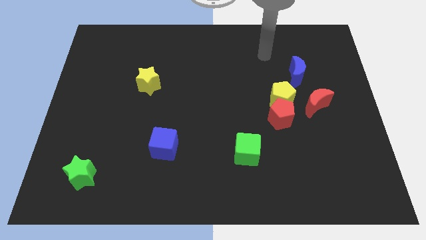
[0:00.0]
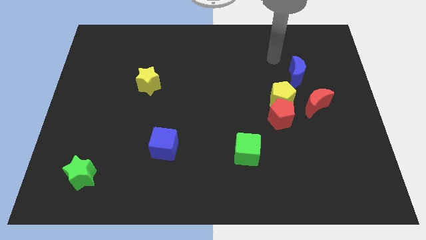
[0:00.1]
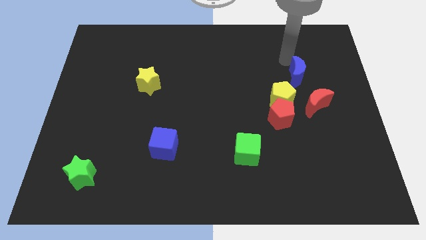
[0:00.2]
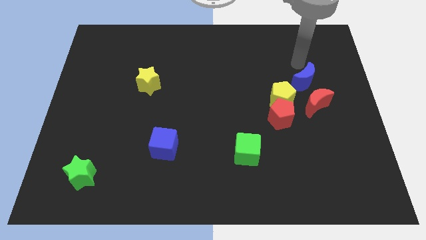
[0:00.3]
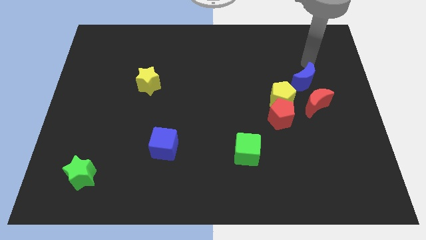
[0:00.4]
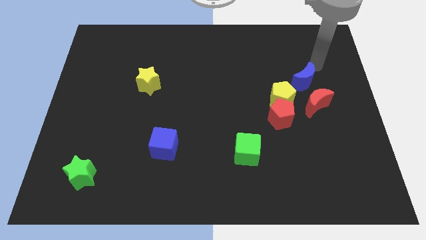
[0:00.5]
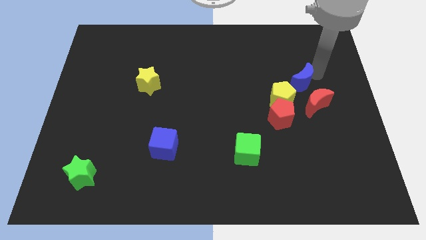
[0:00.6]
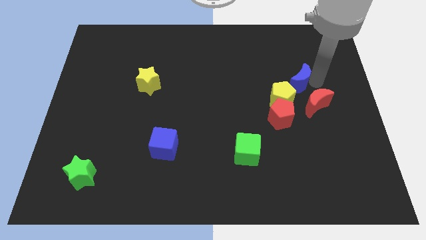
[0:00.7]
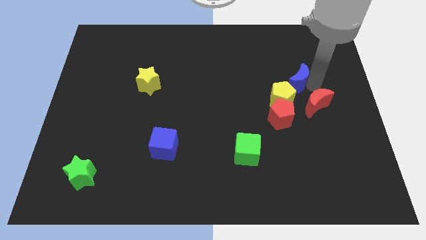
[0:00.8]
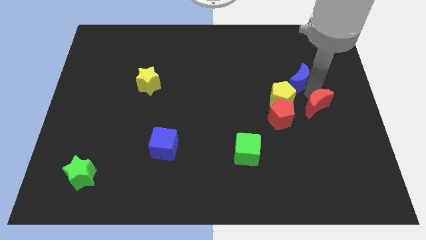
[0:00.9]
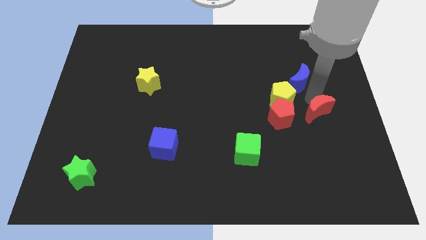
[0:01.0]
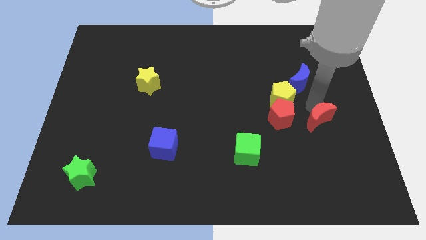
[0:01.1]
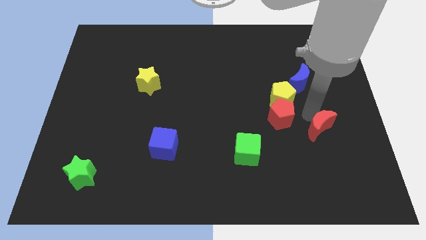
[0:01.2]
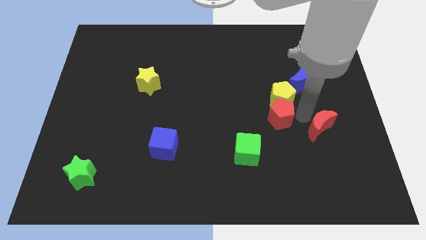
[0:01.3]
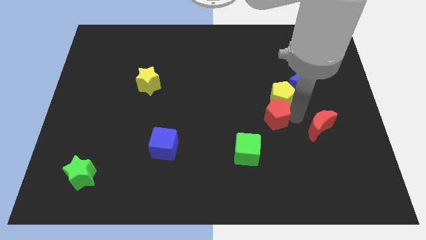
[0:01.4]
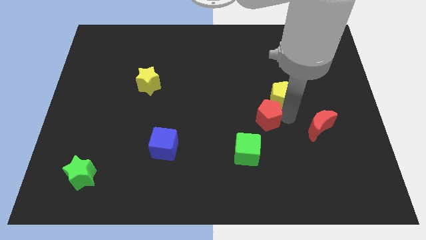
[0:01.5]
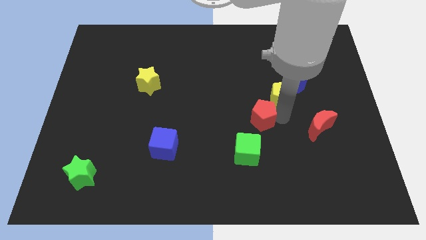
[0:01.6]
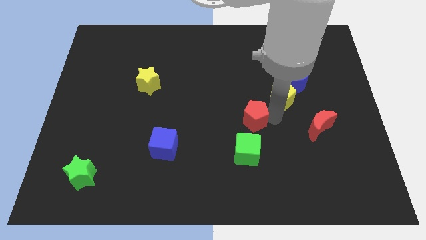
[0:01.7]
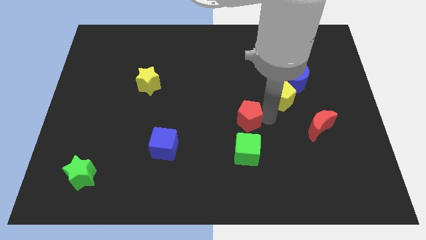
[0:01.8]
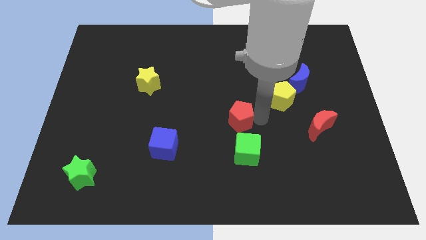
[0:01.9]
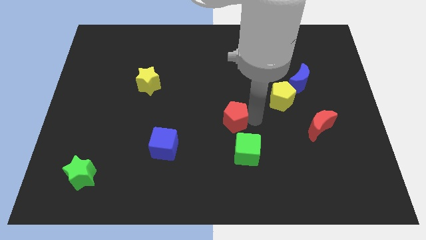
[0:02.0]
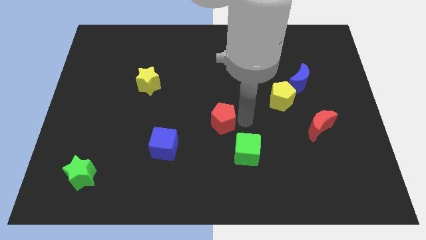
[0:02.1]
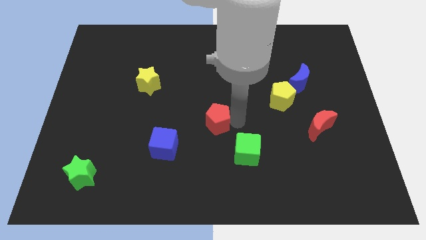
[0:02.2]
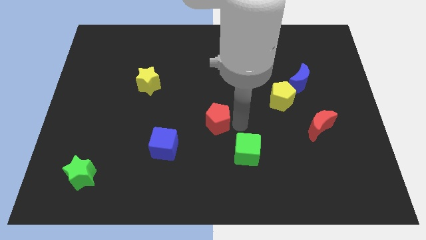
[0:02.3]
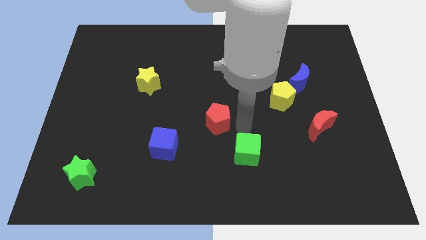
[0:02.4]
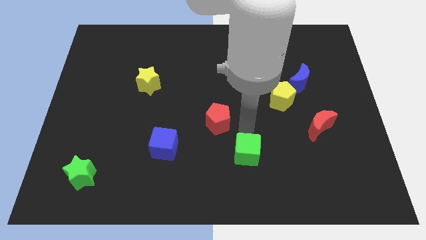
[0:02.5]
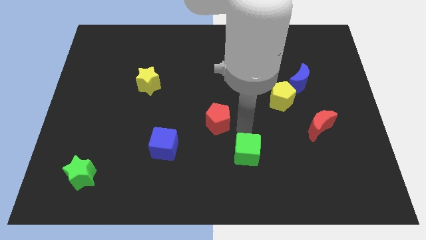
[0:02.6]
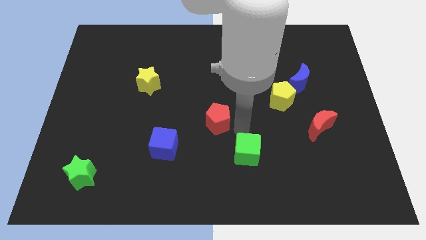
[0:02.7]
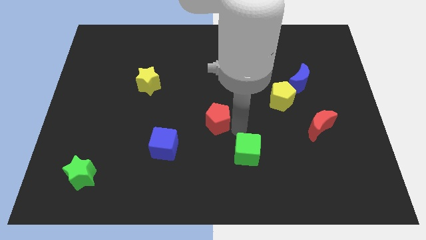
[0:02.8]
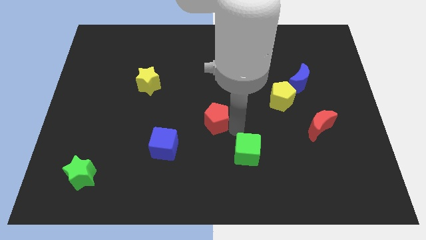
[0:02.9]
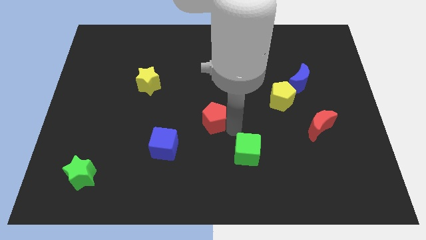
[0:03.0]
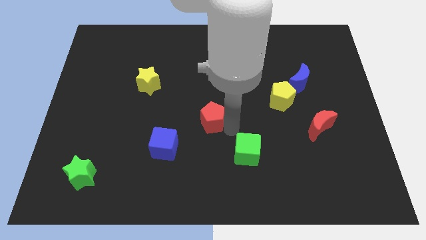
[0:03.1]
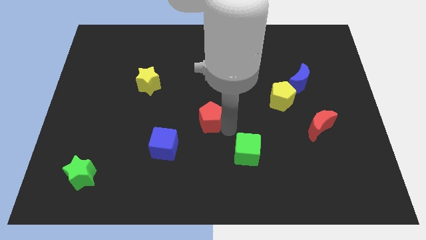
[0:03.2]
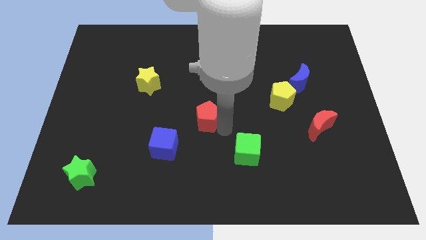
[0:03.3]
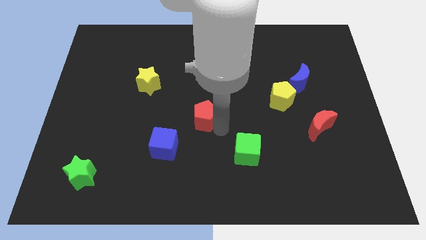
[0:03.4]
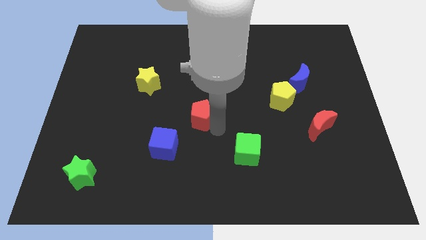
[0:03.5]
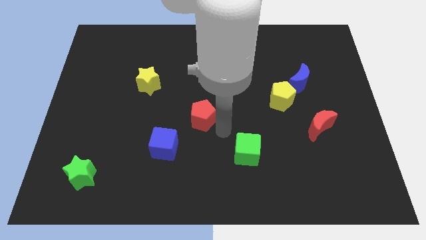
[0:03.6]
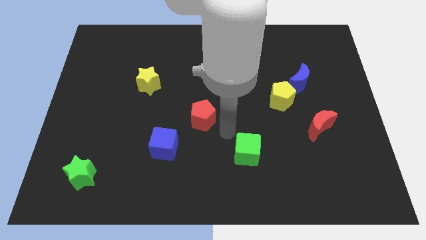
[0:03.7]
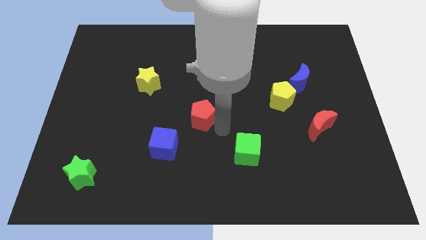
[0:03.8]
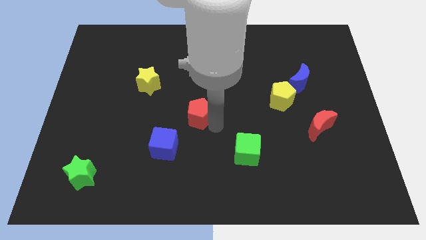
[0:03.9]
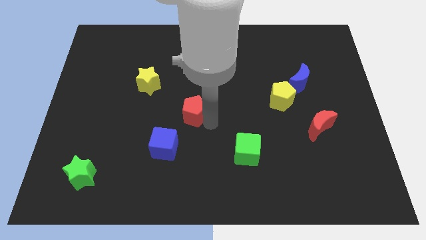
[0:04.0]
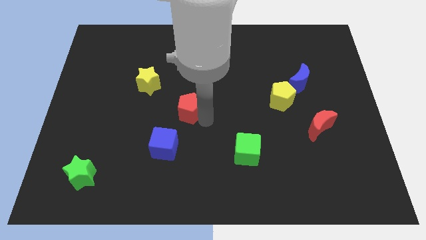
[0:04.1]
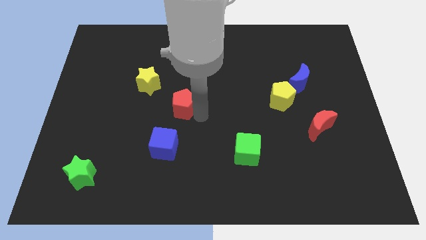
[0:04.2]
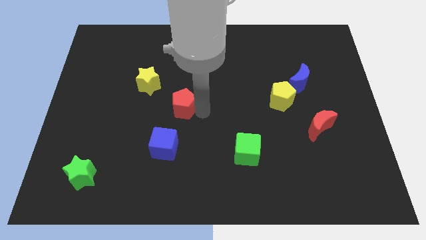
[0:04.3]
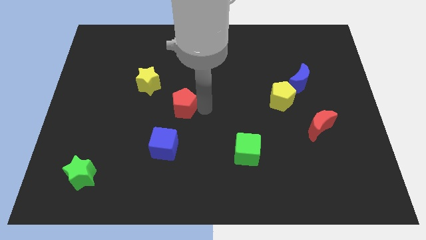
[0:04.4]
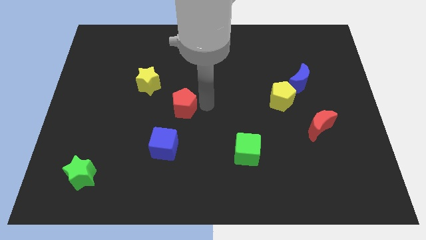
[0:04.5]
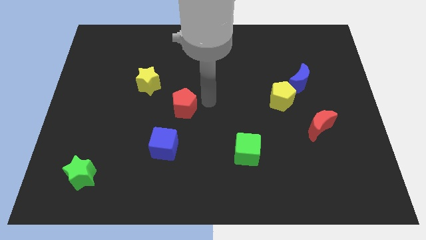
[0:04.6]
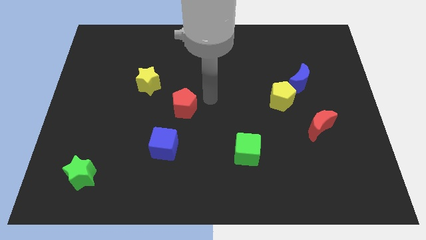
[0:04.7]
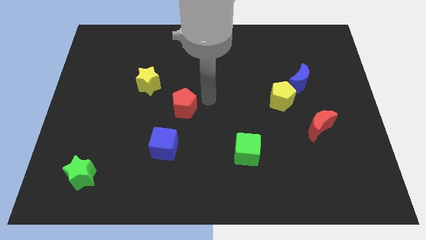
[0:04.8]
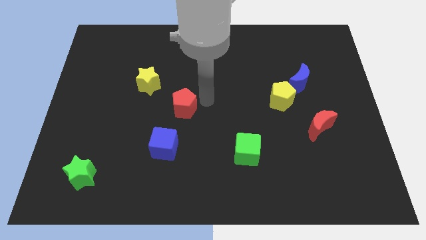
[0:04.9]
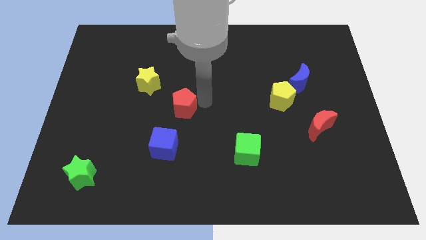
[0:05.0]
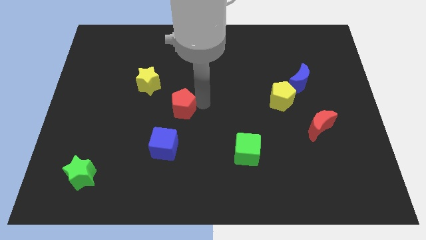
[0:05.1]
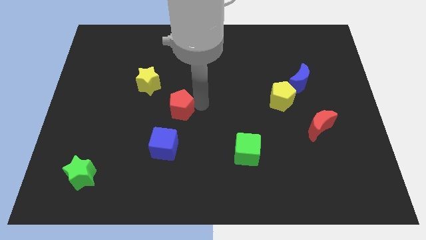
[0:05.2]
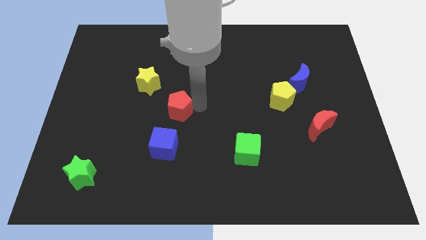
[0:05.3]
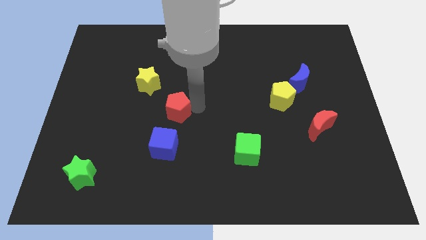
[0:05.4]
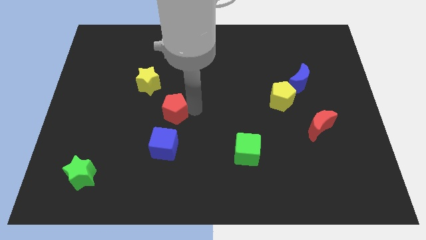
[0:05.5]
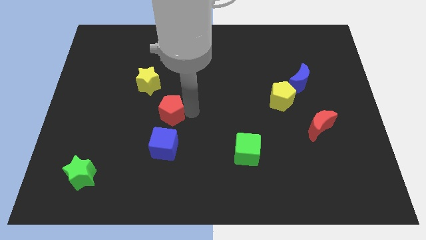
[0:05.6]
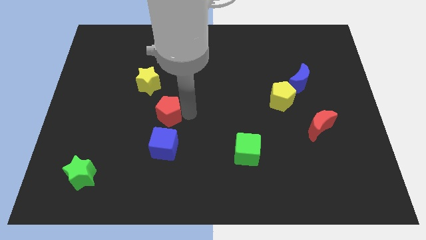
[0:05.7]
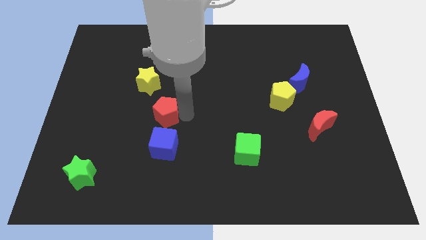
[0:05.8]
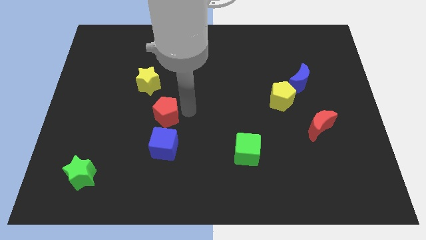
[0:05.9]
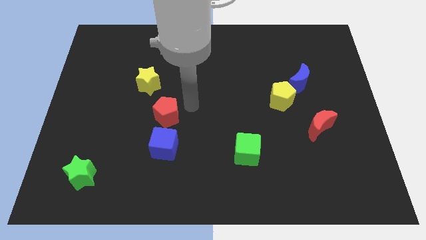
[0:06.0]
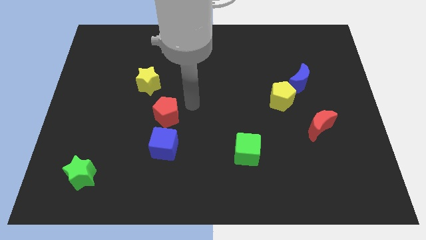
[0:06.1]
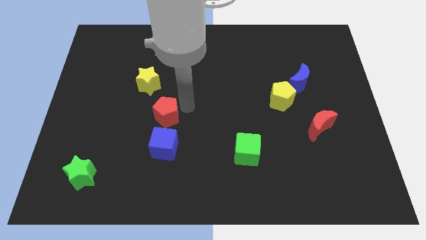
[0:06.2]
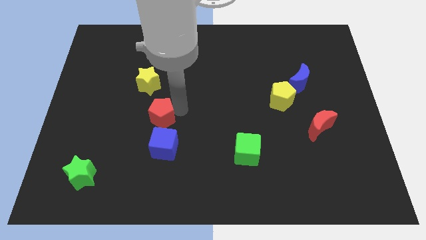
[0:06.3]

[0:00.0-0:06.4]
push the red pentagon diagonally up and to the left of the blue cube

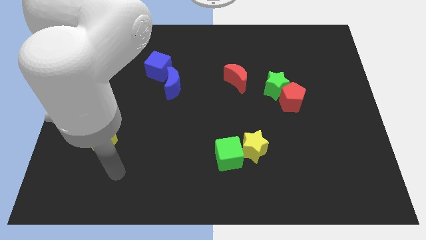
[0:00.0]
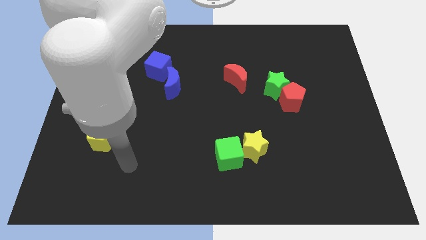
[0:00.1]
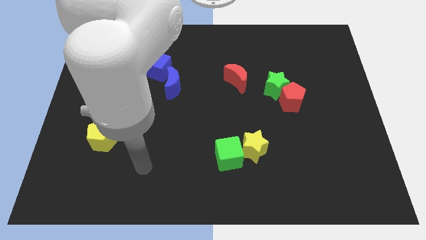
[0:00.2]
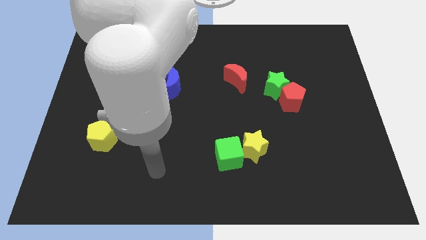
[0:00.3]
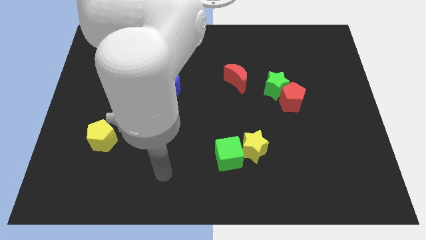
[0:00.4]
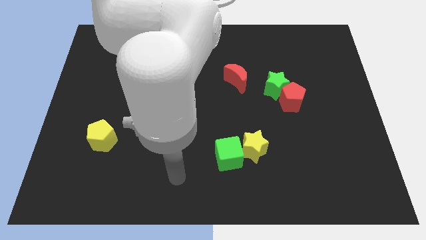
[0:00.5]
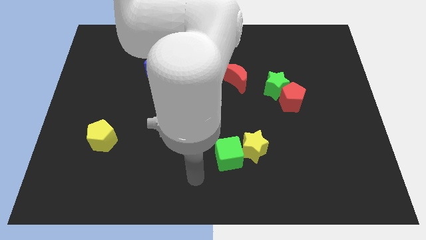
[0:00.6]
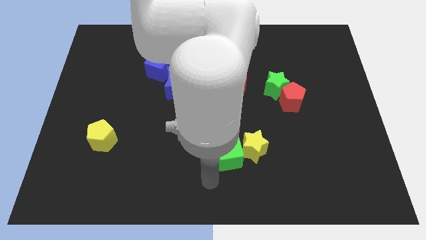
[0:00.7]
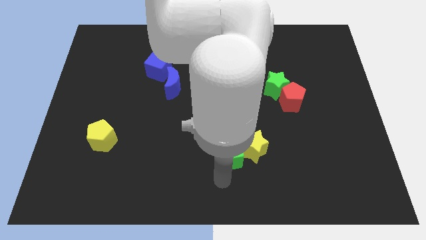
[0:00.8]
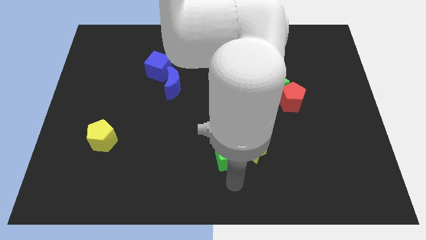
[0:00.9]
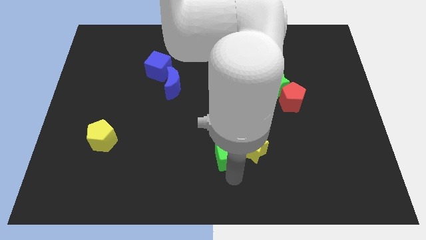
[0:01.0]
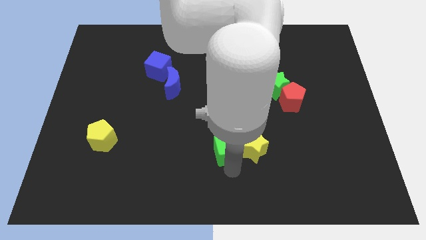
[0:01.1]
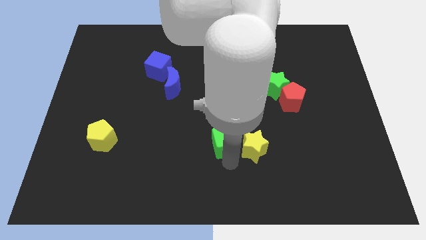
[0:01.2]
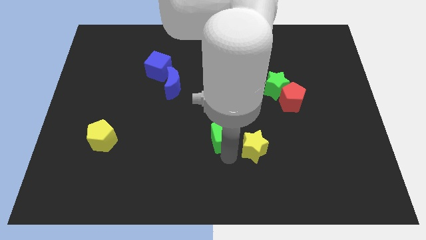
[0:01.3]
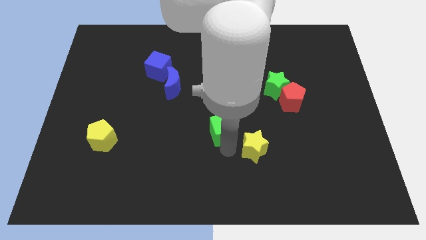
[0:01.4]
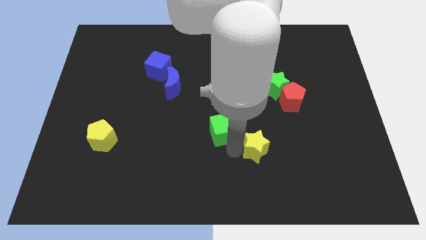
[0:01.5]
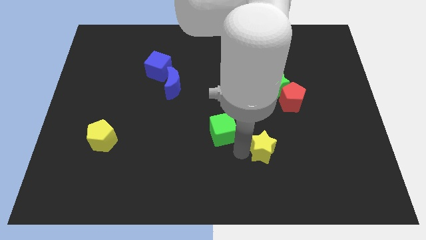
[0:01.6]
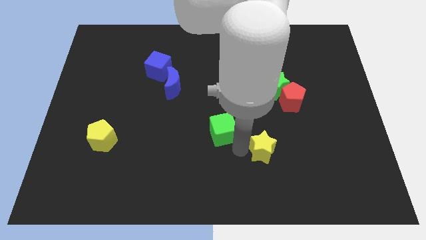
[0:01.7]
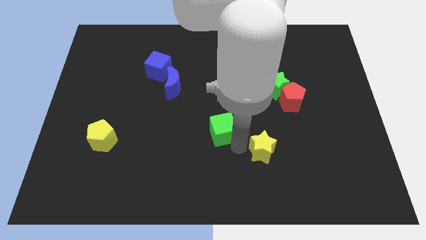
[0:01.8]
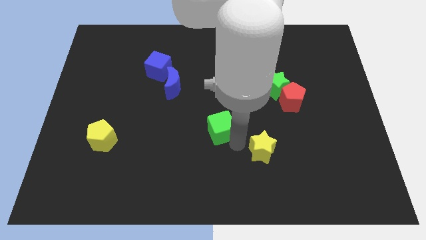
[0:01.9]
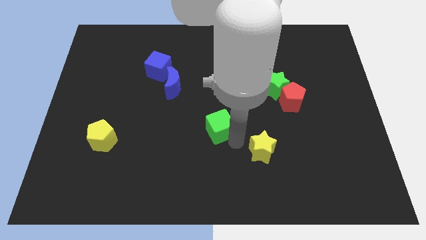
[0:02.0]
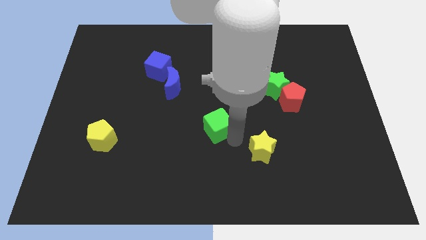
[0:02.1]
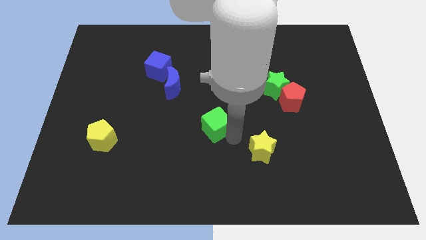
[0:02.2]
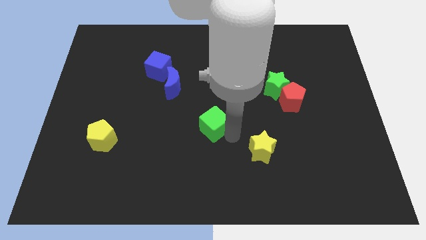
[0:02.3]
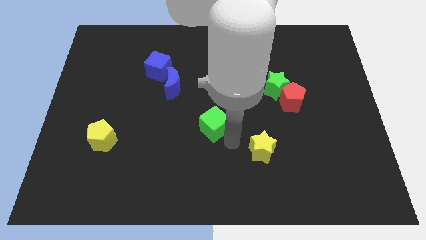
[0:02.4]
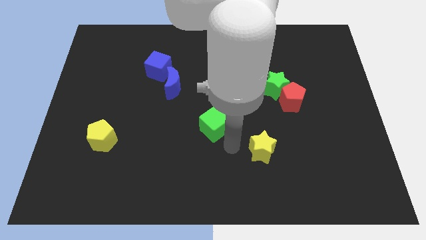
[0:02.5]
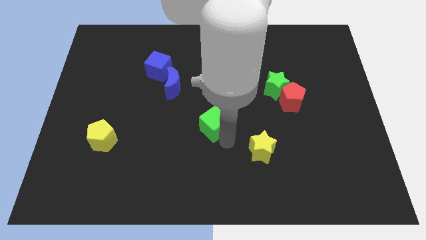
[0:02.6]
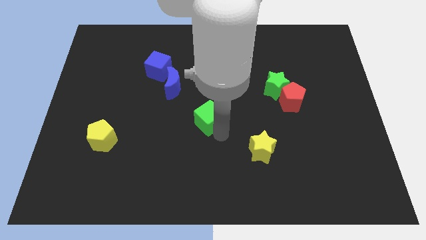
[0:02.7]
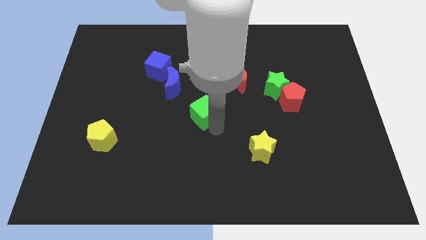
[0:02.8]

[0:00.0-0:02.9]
push the green cube to the bottom right side of the blue moon
